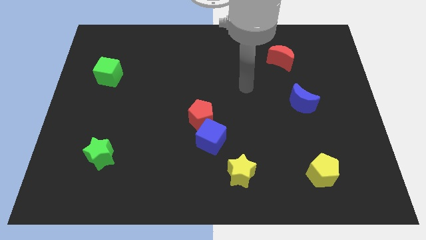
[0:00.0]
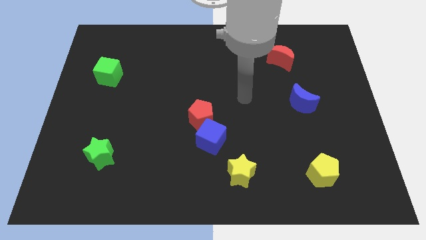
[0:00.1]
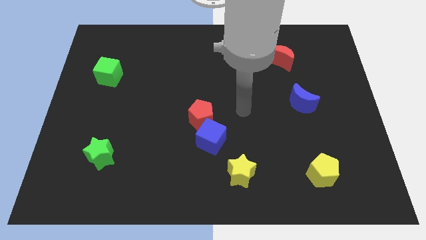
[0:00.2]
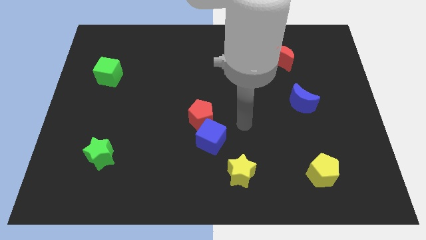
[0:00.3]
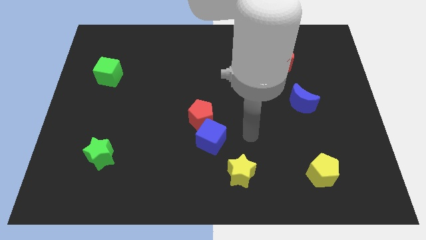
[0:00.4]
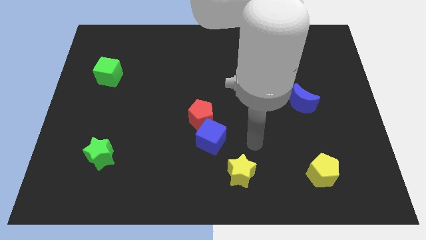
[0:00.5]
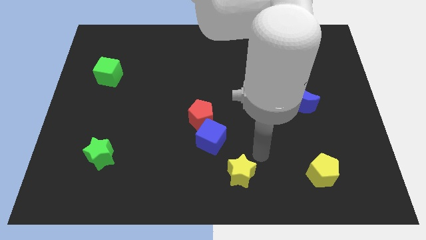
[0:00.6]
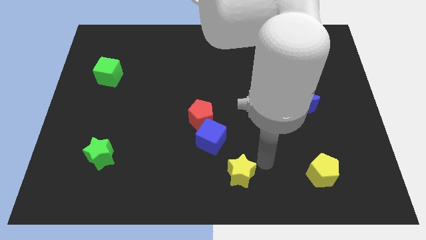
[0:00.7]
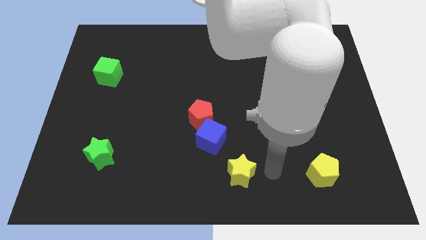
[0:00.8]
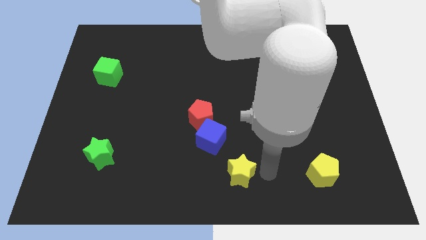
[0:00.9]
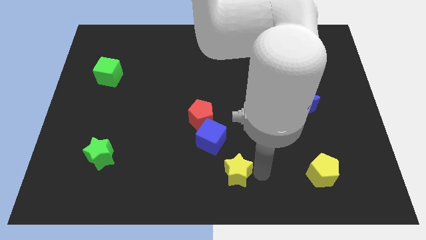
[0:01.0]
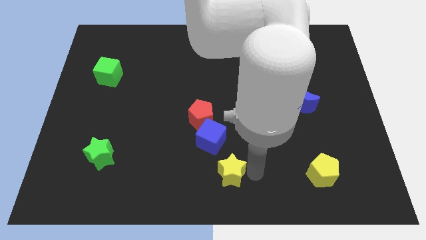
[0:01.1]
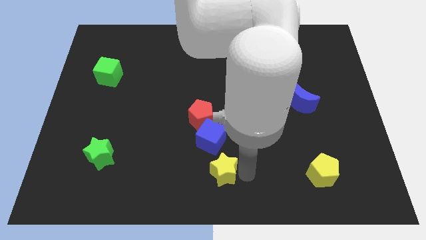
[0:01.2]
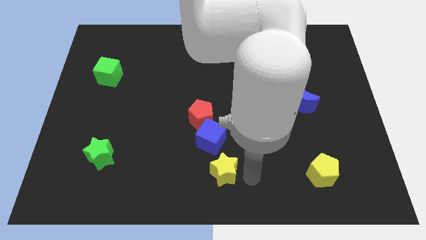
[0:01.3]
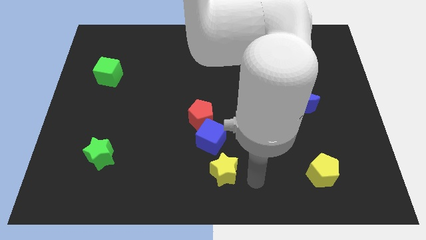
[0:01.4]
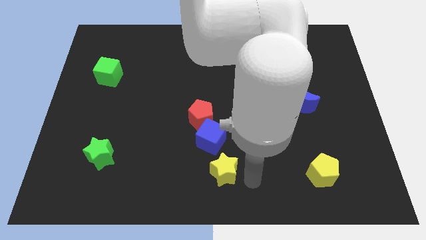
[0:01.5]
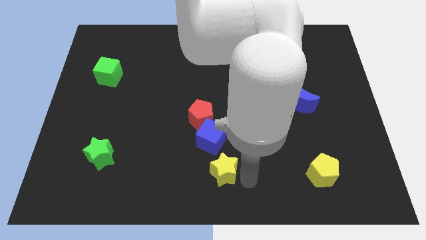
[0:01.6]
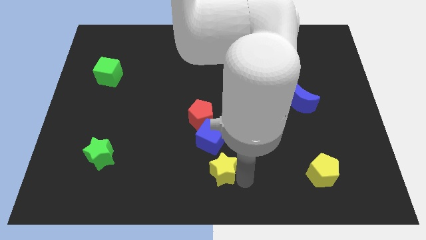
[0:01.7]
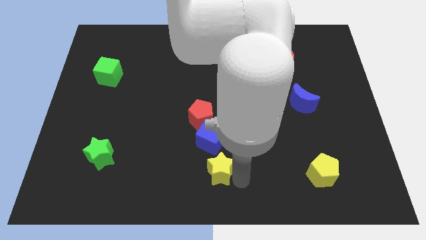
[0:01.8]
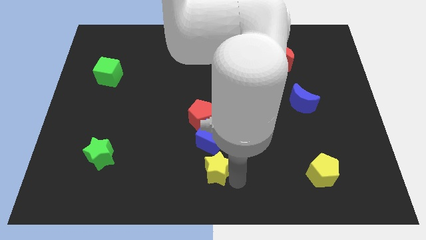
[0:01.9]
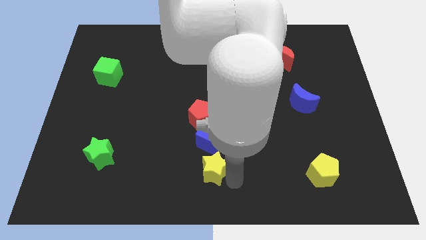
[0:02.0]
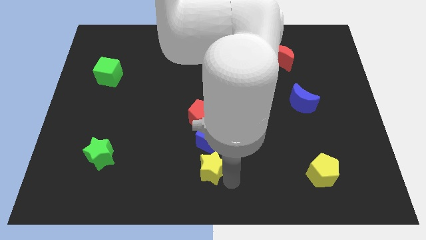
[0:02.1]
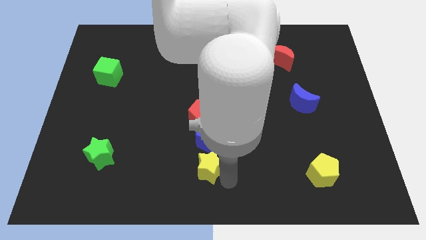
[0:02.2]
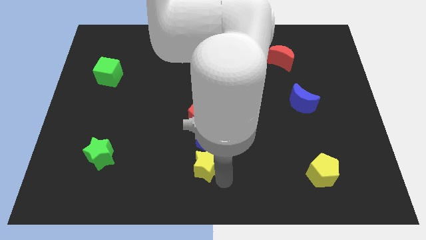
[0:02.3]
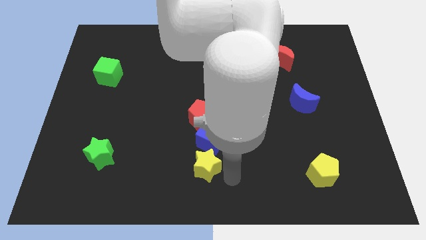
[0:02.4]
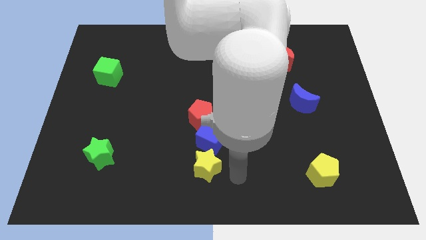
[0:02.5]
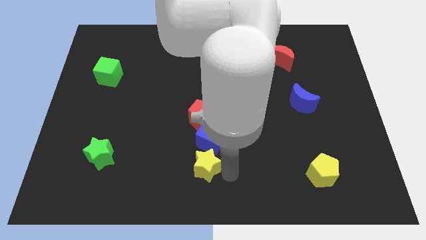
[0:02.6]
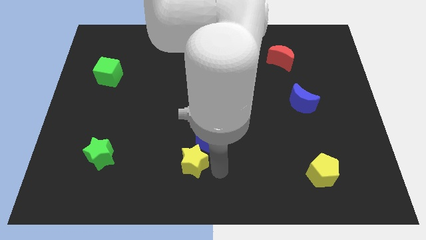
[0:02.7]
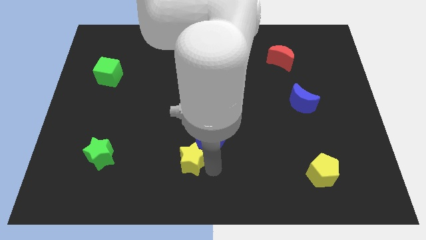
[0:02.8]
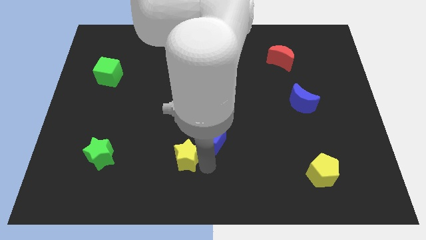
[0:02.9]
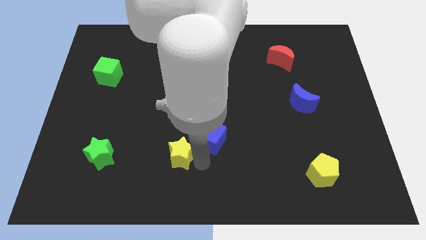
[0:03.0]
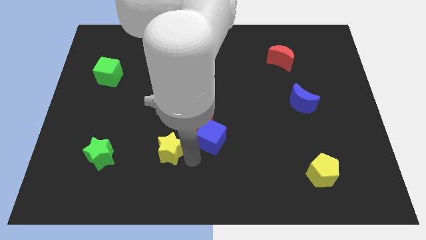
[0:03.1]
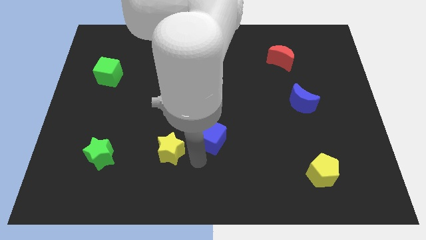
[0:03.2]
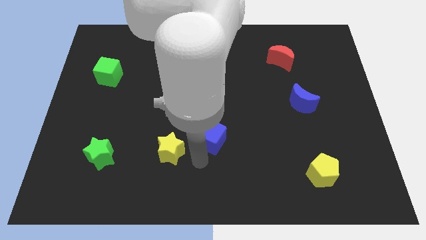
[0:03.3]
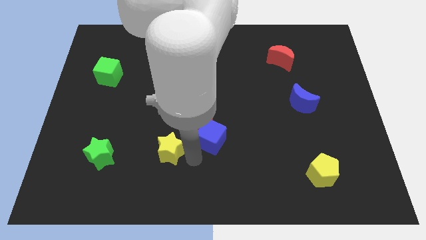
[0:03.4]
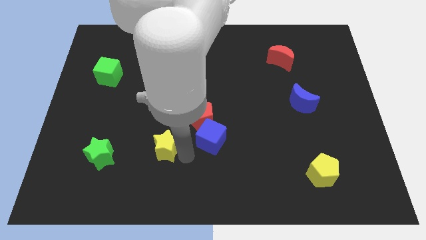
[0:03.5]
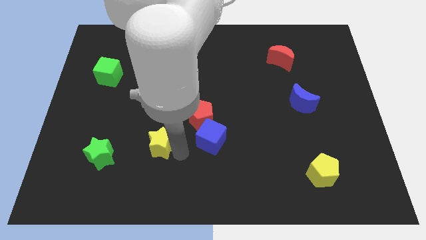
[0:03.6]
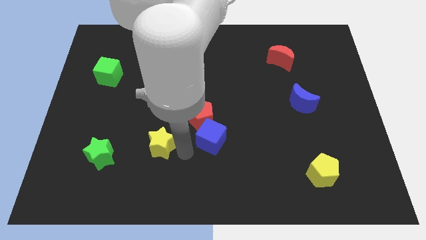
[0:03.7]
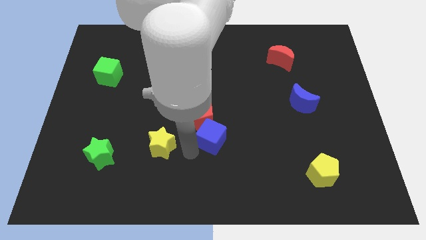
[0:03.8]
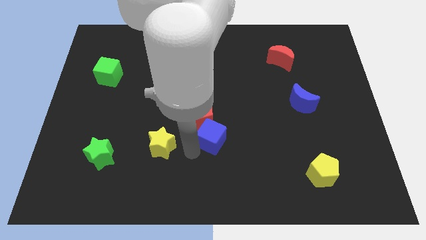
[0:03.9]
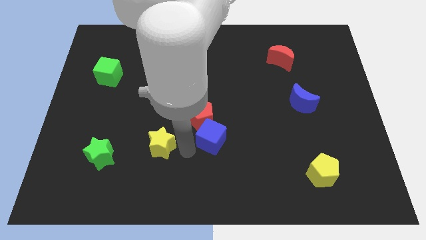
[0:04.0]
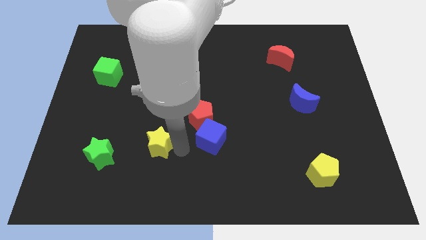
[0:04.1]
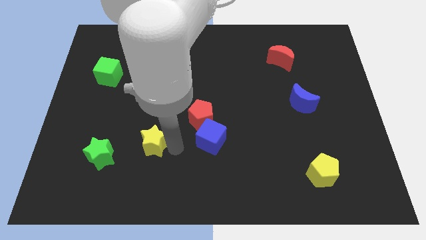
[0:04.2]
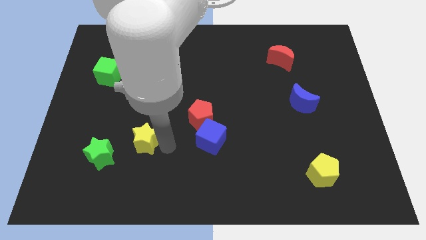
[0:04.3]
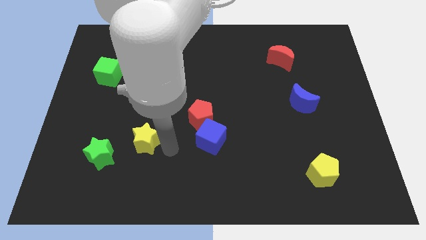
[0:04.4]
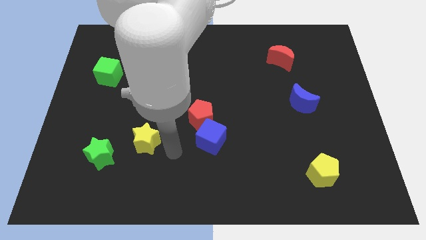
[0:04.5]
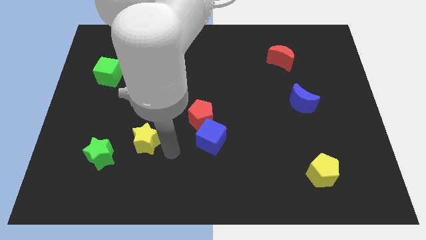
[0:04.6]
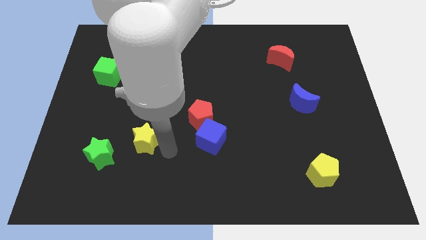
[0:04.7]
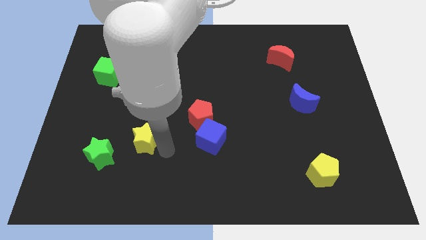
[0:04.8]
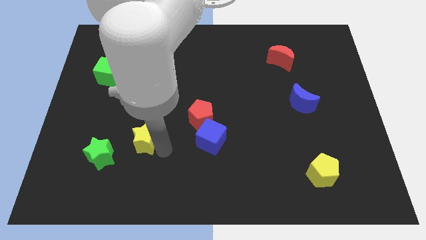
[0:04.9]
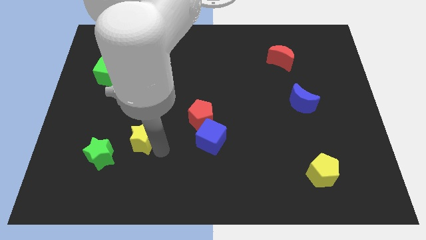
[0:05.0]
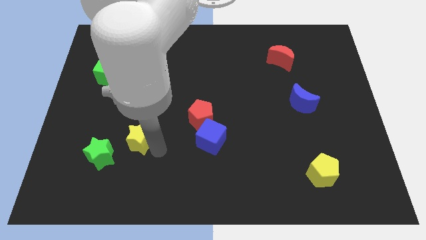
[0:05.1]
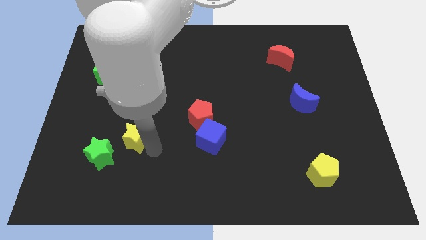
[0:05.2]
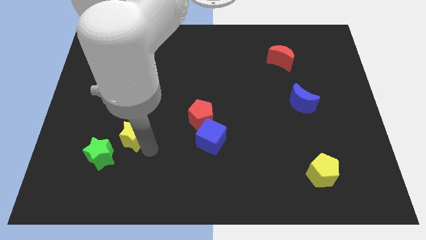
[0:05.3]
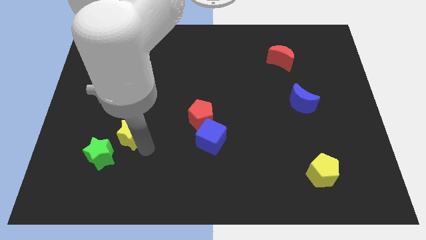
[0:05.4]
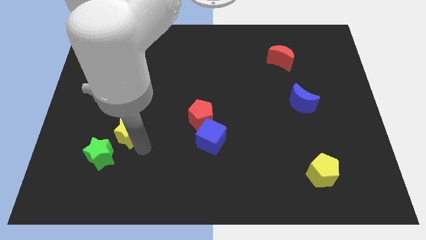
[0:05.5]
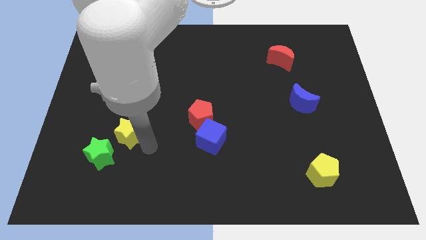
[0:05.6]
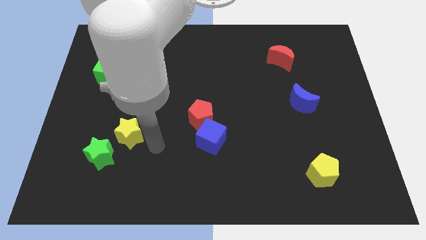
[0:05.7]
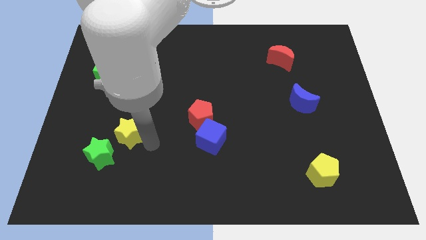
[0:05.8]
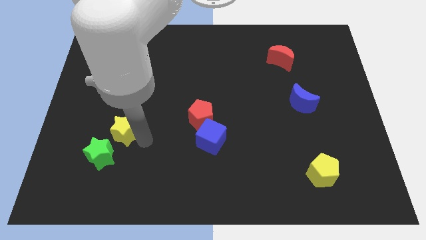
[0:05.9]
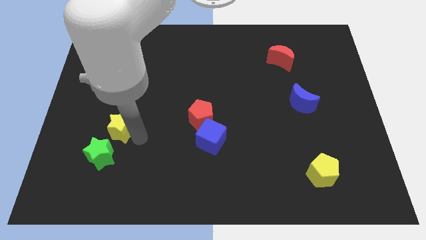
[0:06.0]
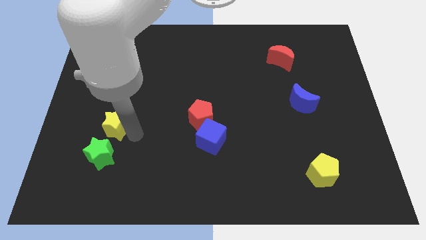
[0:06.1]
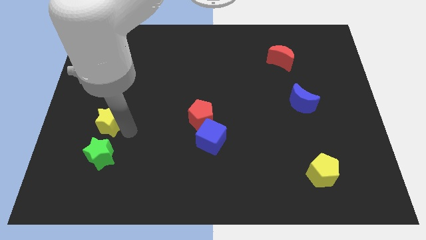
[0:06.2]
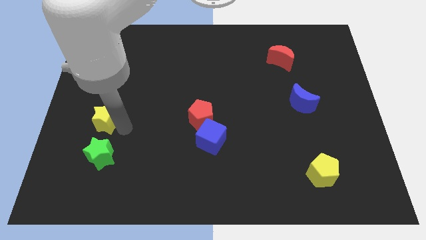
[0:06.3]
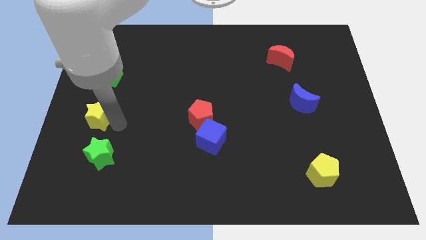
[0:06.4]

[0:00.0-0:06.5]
move the yellow star to the left side of the board
